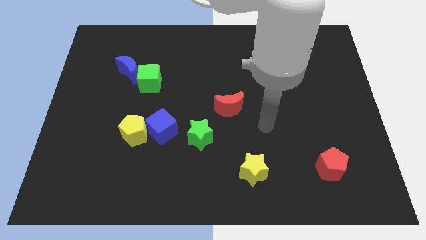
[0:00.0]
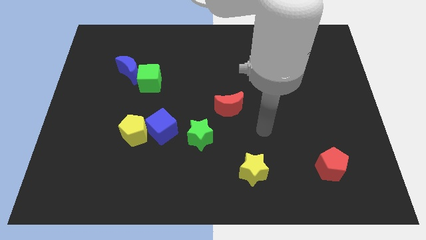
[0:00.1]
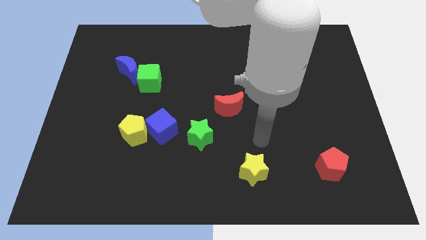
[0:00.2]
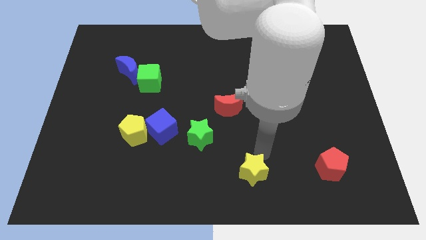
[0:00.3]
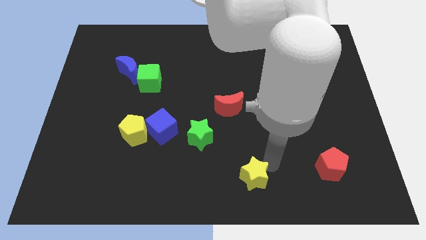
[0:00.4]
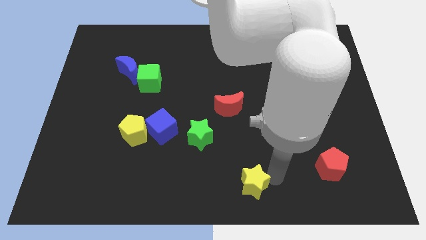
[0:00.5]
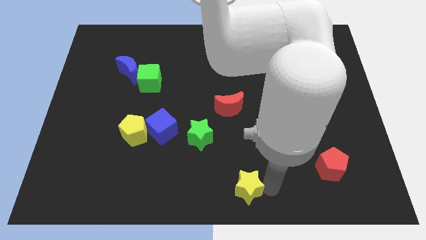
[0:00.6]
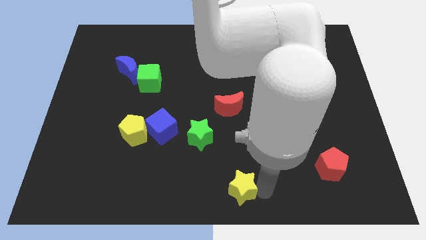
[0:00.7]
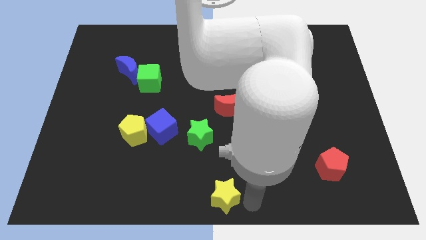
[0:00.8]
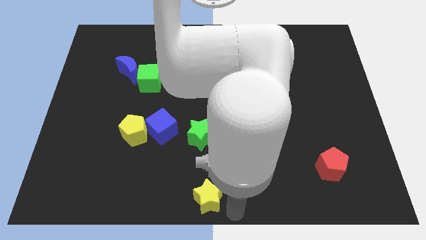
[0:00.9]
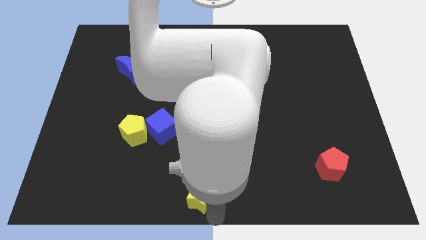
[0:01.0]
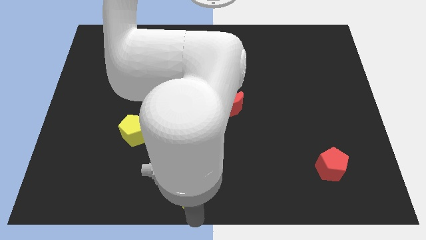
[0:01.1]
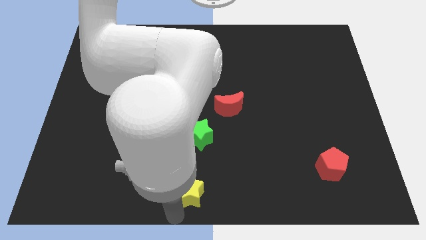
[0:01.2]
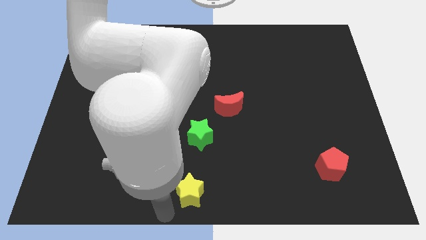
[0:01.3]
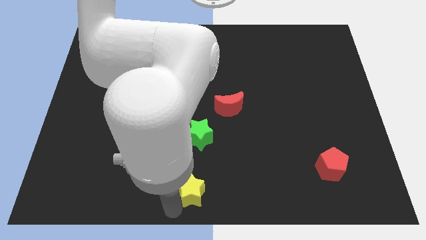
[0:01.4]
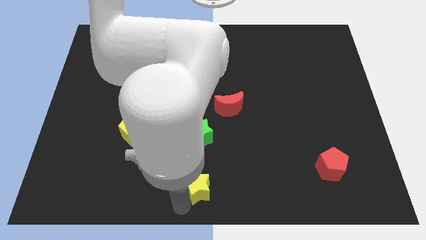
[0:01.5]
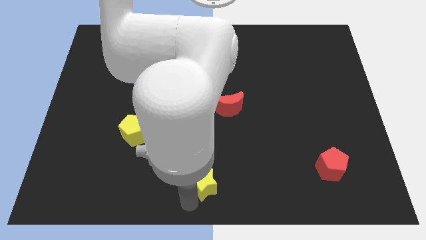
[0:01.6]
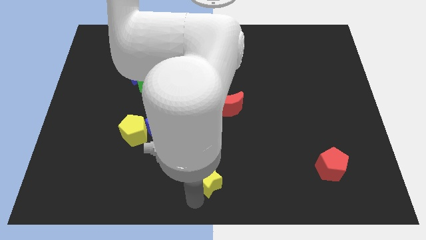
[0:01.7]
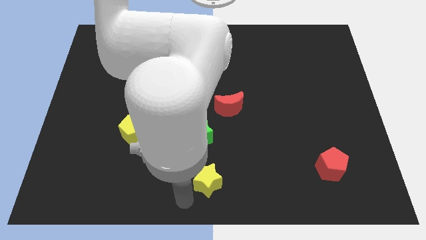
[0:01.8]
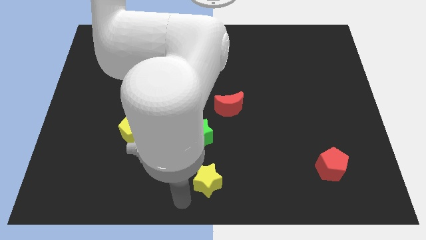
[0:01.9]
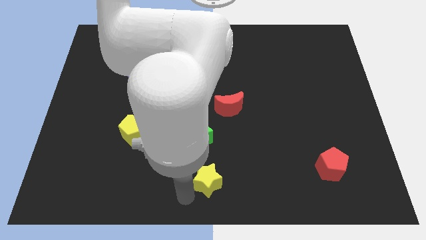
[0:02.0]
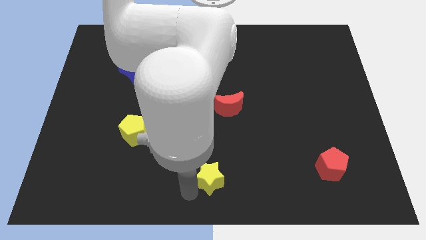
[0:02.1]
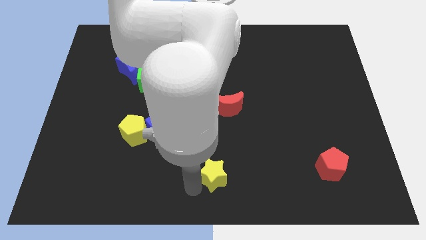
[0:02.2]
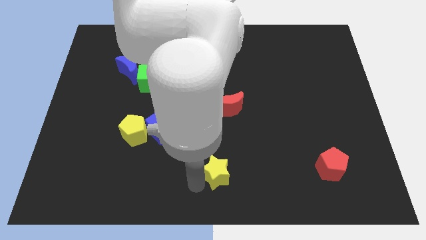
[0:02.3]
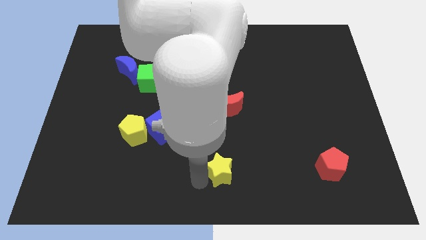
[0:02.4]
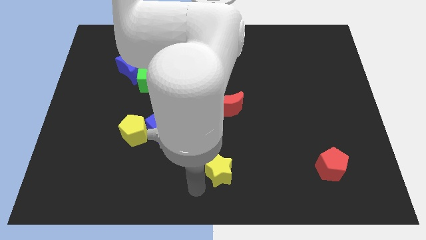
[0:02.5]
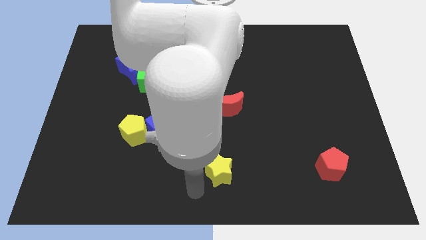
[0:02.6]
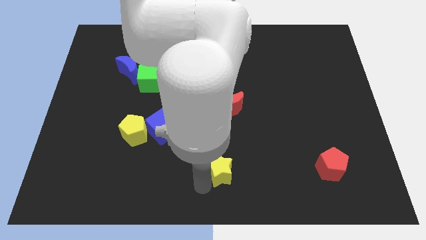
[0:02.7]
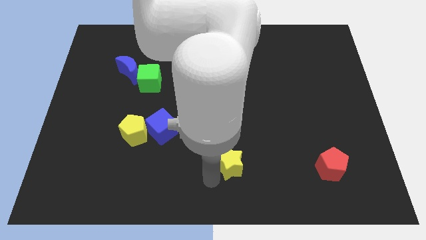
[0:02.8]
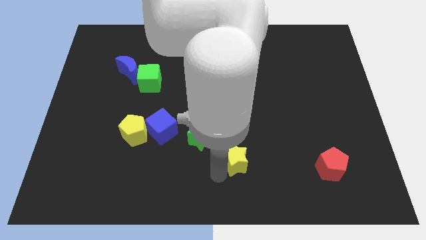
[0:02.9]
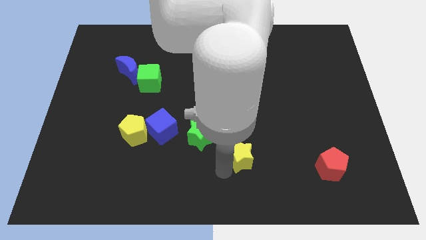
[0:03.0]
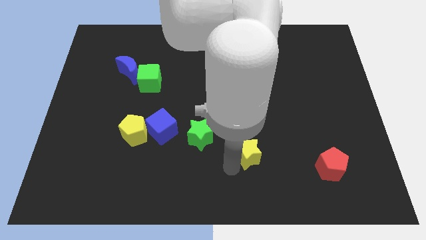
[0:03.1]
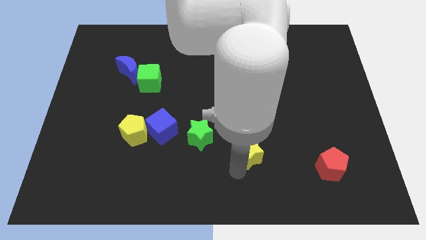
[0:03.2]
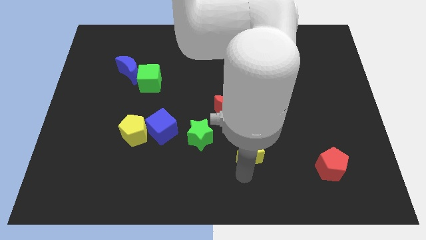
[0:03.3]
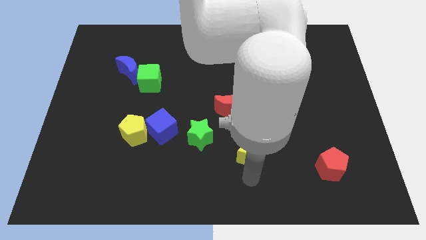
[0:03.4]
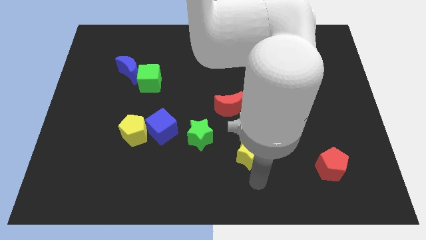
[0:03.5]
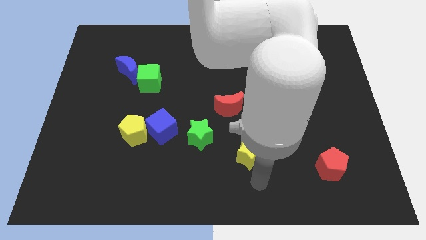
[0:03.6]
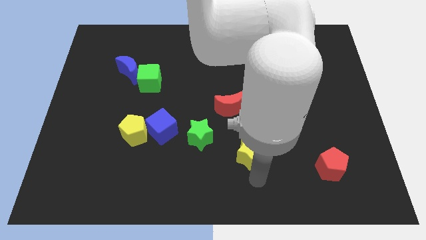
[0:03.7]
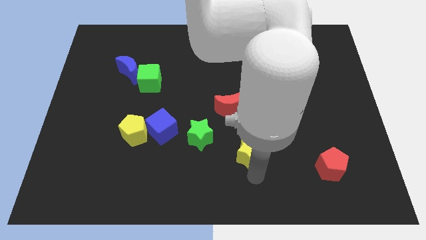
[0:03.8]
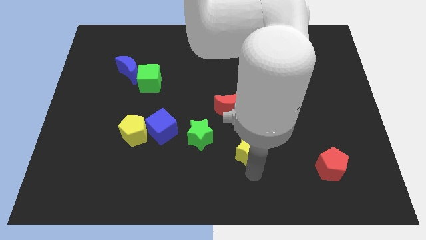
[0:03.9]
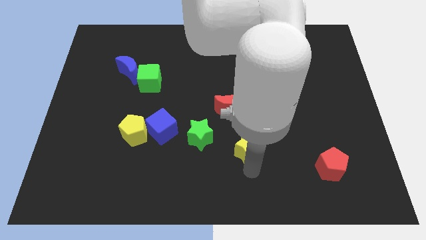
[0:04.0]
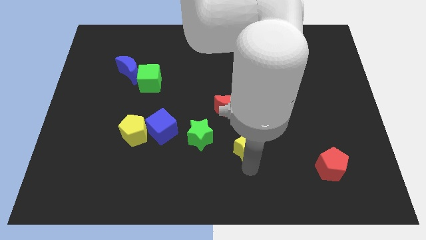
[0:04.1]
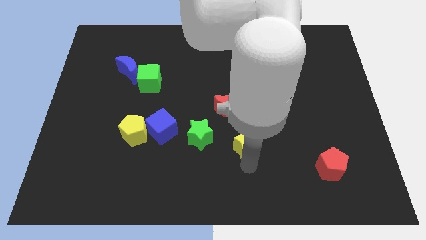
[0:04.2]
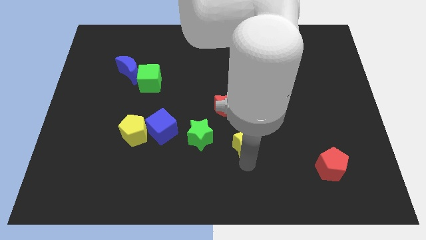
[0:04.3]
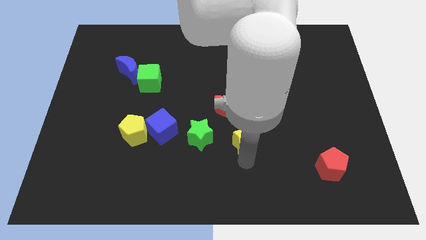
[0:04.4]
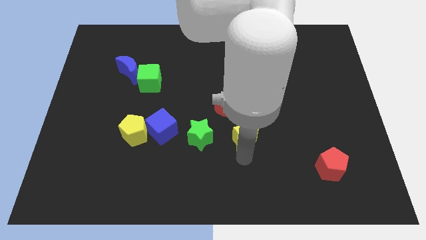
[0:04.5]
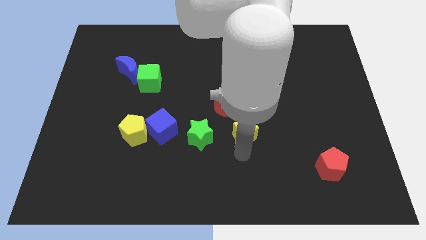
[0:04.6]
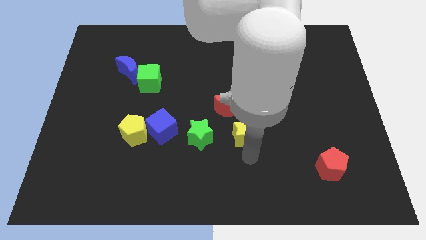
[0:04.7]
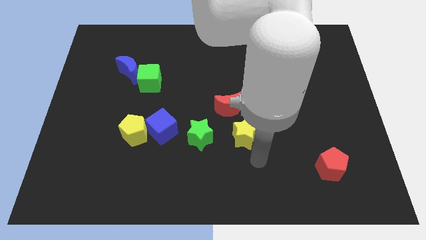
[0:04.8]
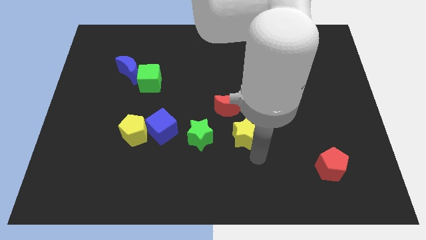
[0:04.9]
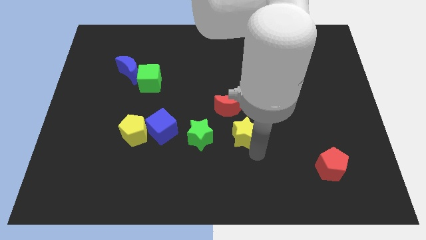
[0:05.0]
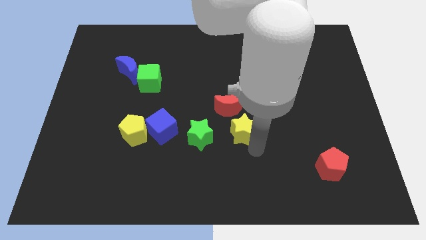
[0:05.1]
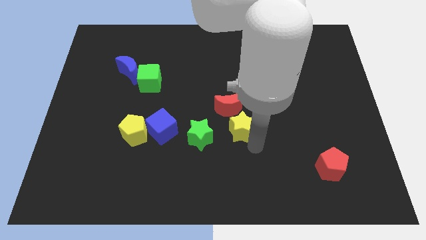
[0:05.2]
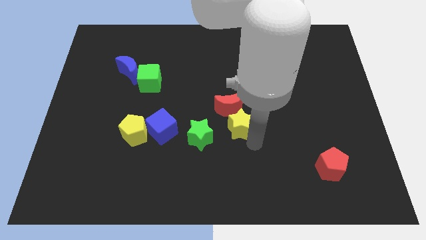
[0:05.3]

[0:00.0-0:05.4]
move the yellow star to the red moon

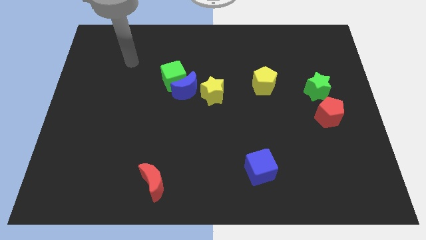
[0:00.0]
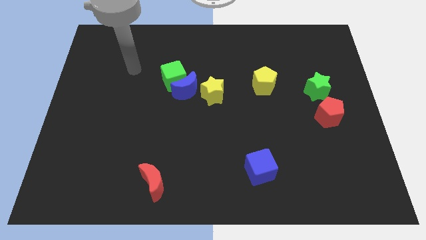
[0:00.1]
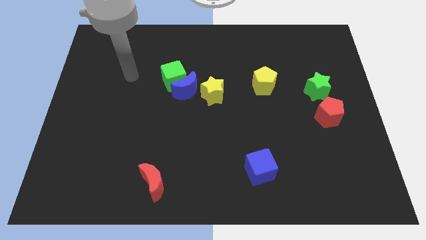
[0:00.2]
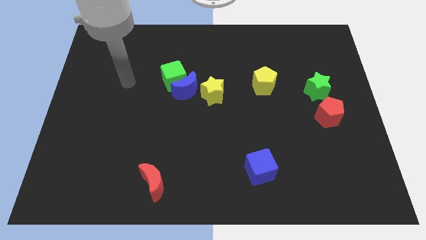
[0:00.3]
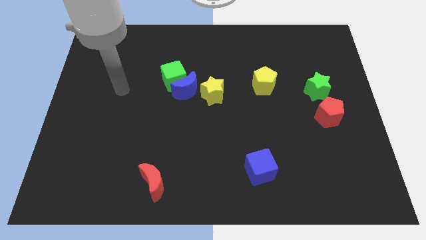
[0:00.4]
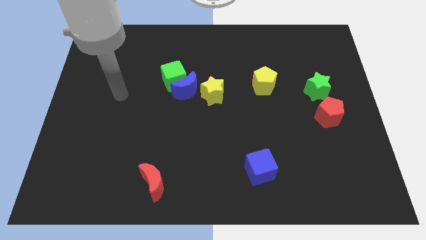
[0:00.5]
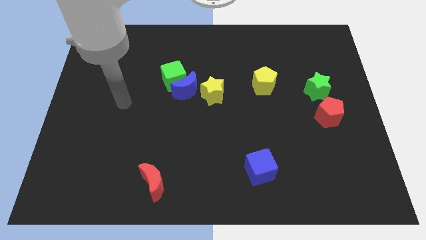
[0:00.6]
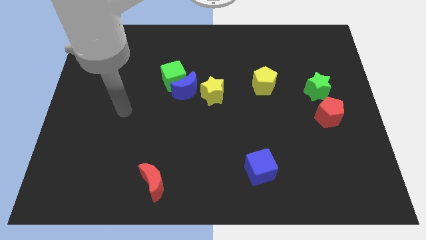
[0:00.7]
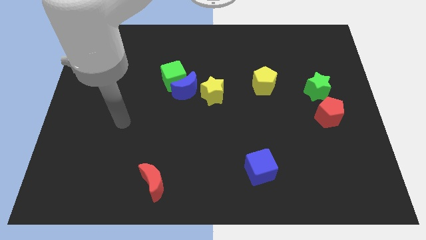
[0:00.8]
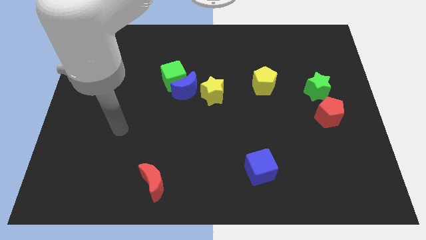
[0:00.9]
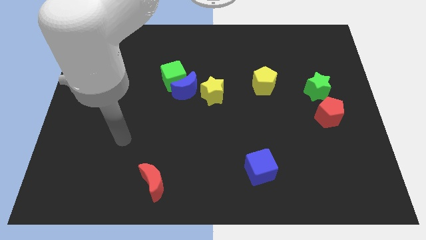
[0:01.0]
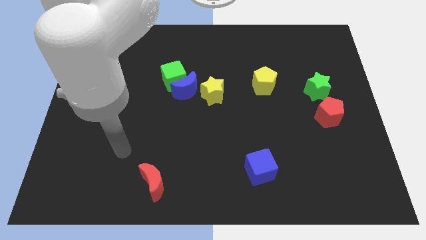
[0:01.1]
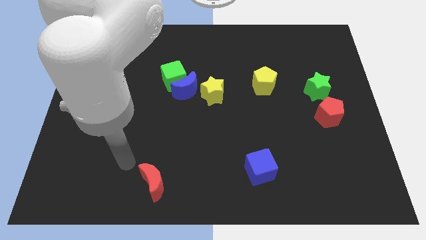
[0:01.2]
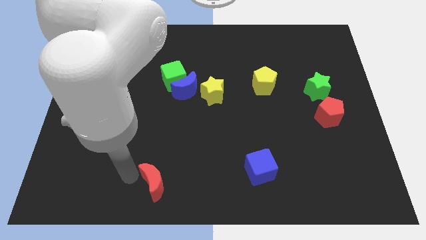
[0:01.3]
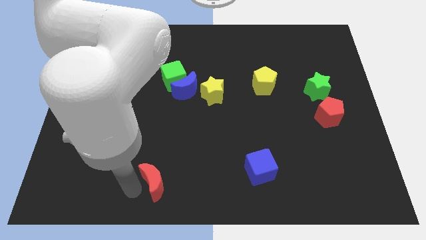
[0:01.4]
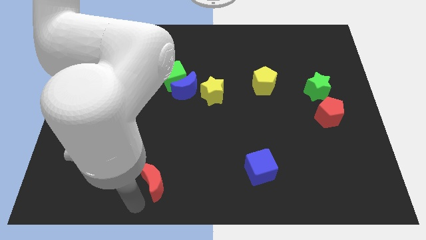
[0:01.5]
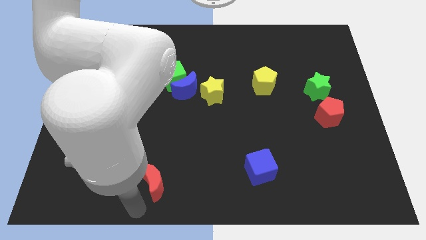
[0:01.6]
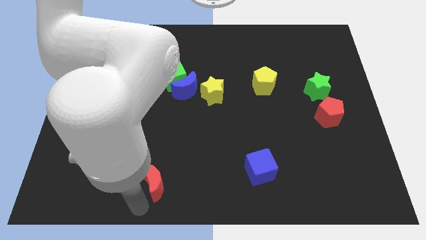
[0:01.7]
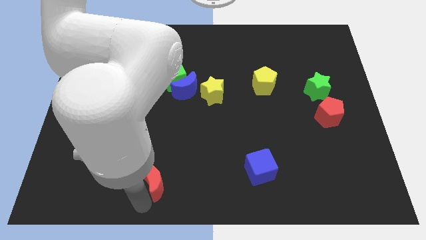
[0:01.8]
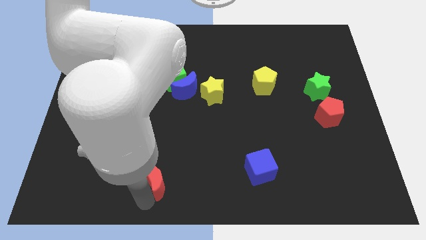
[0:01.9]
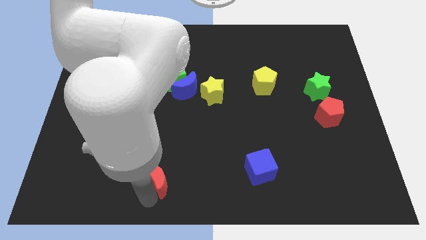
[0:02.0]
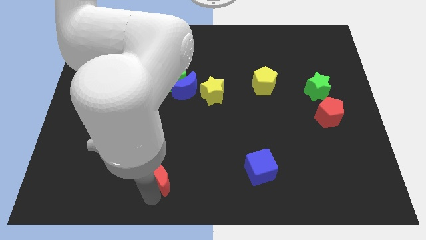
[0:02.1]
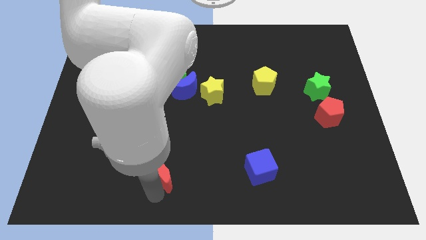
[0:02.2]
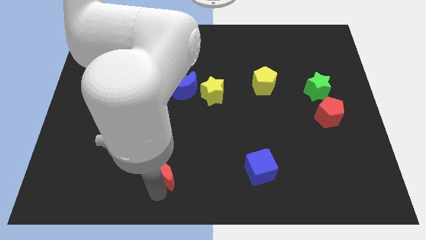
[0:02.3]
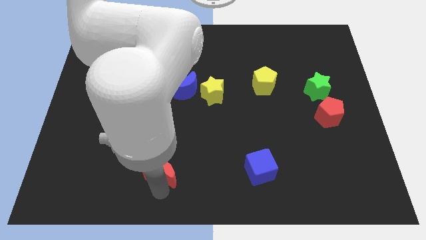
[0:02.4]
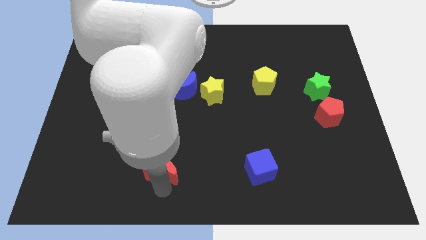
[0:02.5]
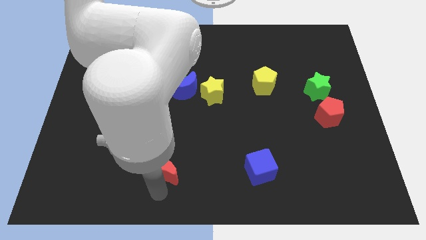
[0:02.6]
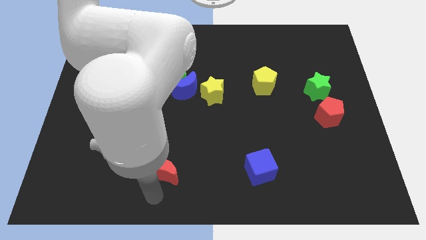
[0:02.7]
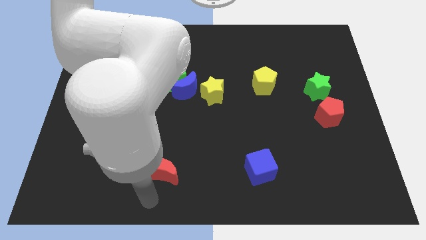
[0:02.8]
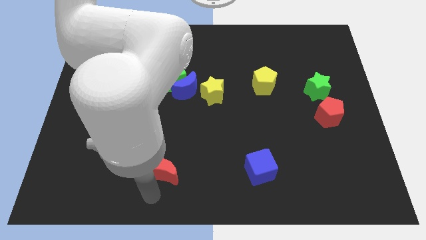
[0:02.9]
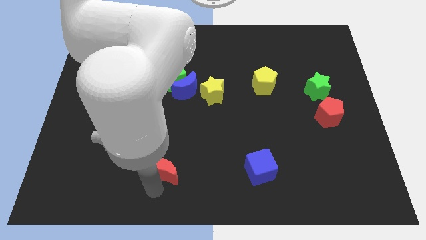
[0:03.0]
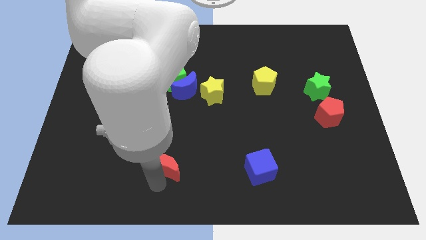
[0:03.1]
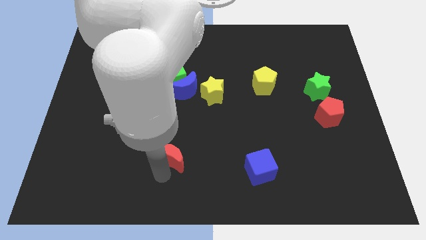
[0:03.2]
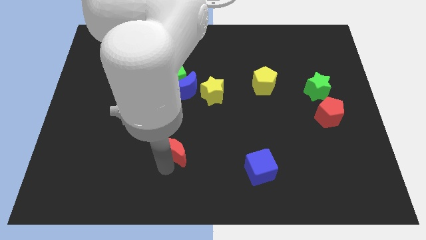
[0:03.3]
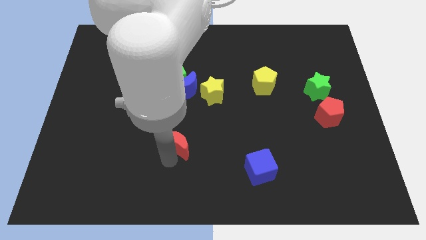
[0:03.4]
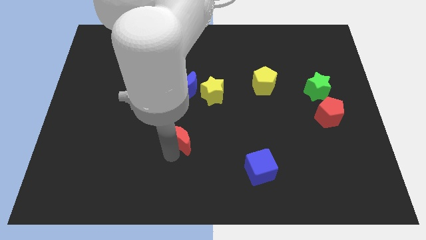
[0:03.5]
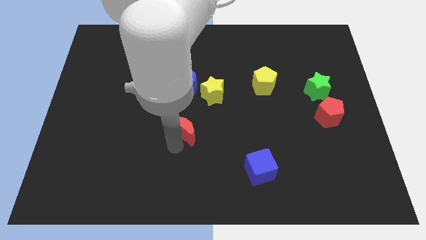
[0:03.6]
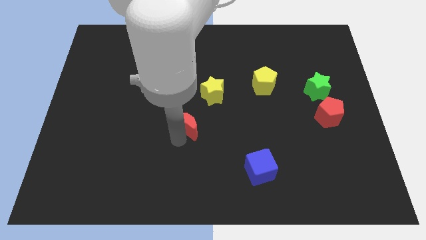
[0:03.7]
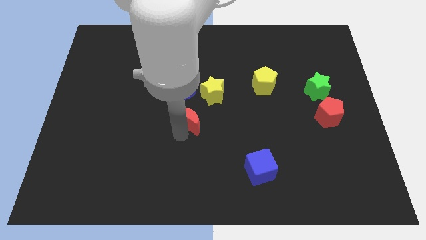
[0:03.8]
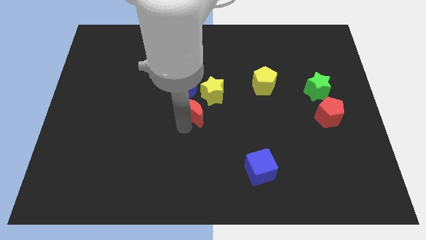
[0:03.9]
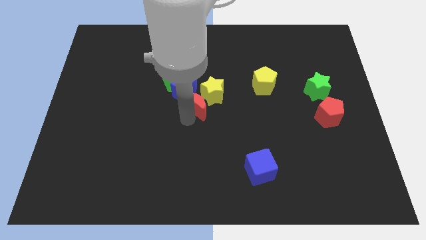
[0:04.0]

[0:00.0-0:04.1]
slide the red moon next to the yellow star
